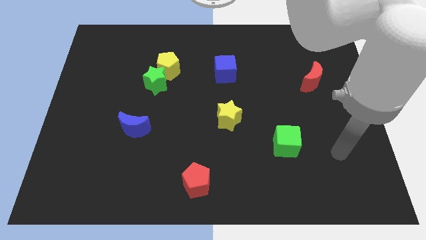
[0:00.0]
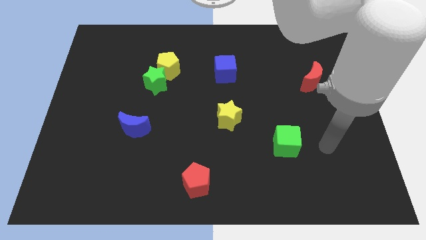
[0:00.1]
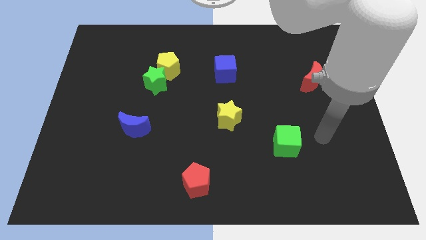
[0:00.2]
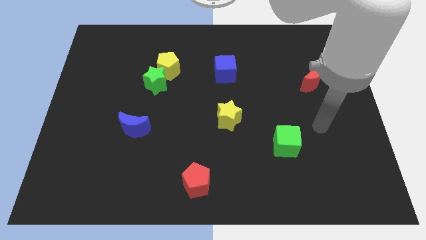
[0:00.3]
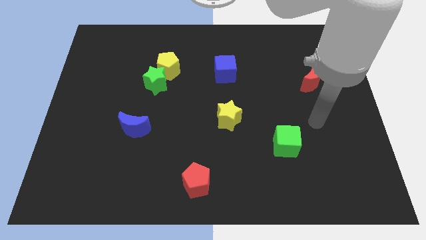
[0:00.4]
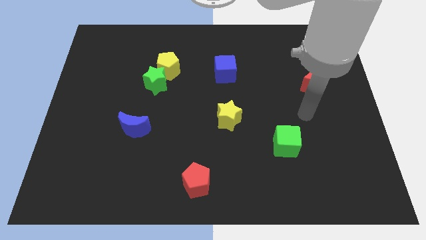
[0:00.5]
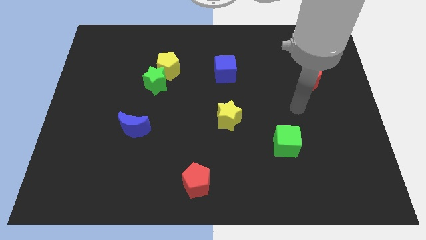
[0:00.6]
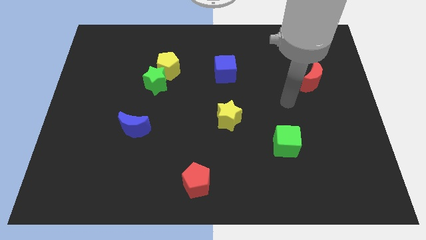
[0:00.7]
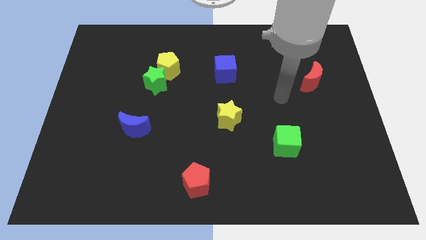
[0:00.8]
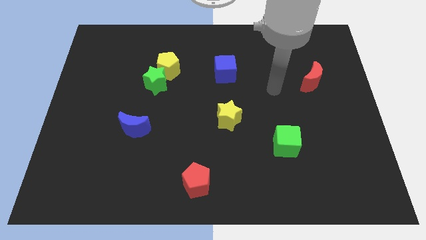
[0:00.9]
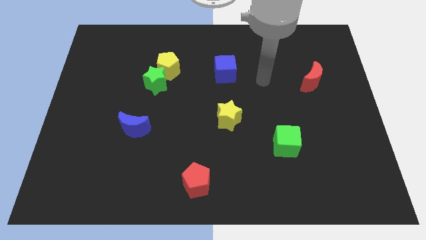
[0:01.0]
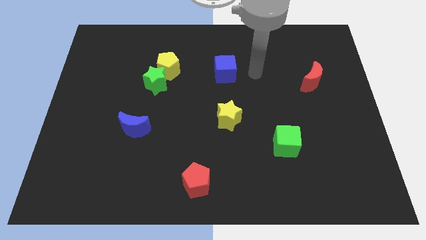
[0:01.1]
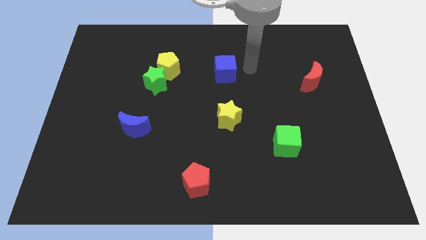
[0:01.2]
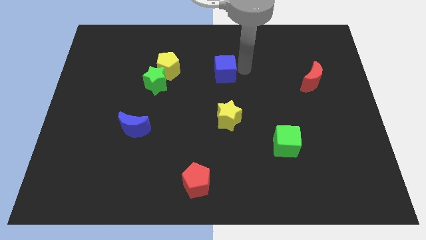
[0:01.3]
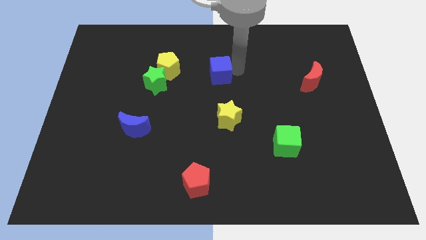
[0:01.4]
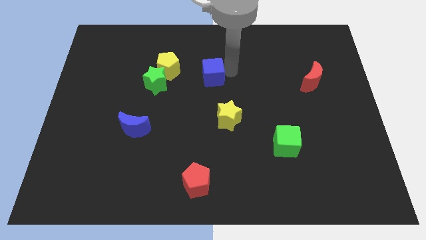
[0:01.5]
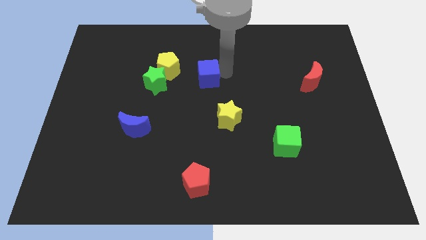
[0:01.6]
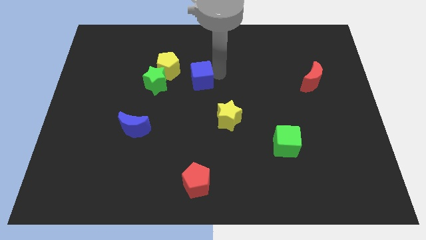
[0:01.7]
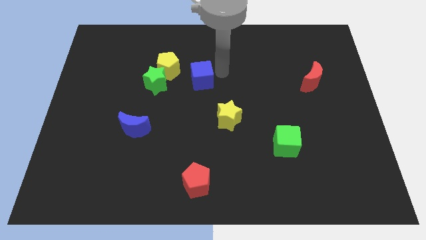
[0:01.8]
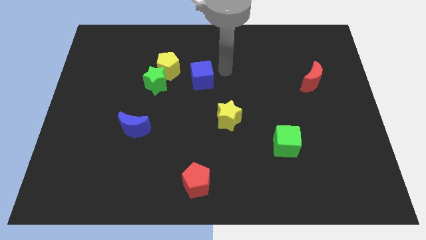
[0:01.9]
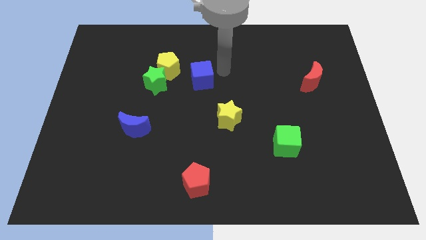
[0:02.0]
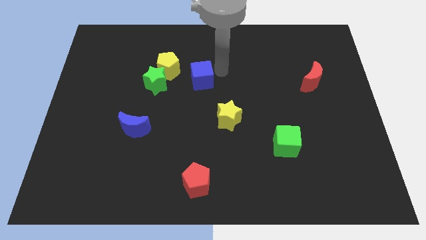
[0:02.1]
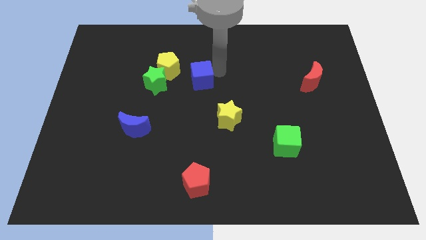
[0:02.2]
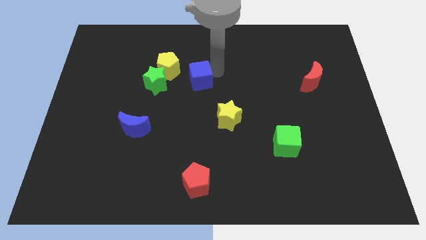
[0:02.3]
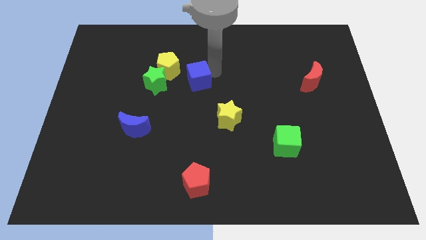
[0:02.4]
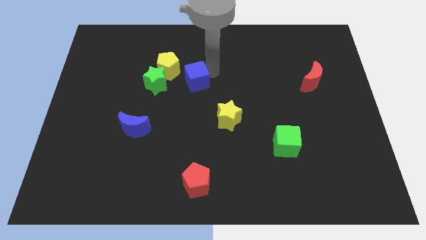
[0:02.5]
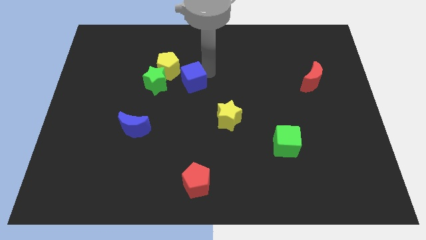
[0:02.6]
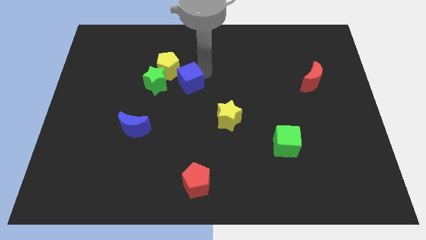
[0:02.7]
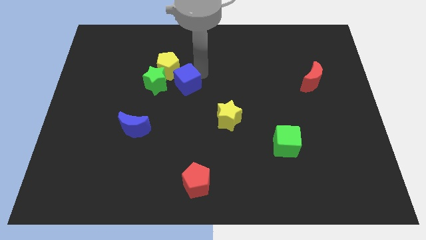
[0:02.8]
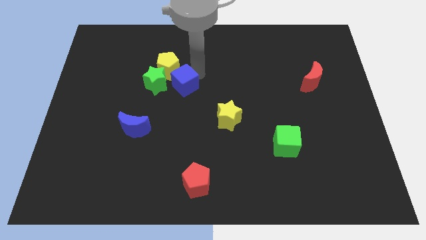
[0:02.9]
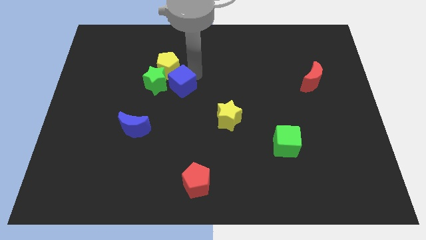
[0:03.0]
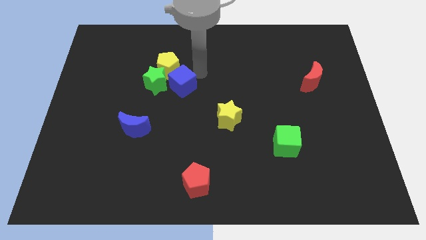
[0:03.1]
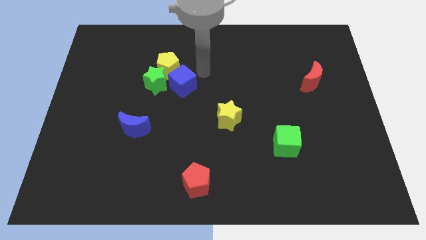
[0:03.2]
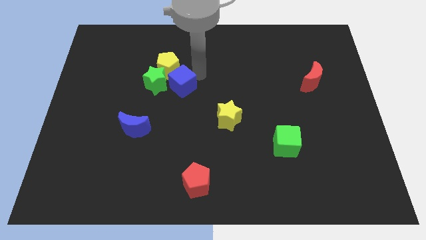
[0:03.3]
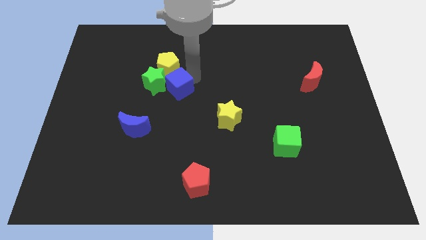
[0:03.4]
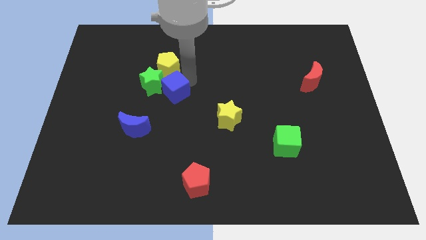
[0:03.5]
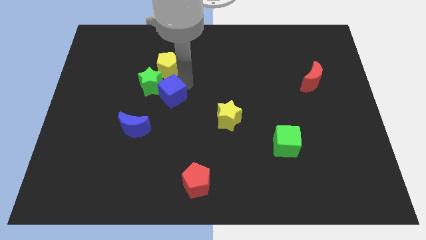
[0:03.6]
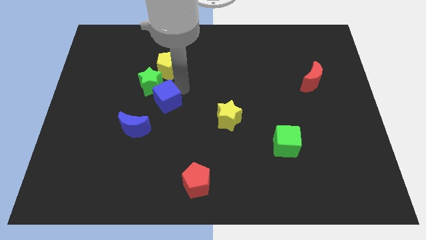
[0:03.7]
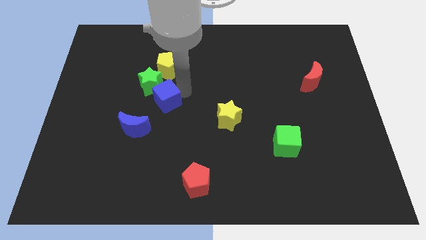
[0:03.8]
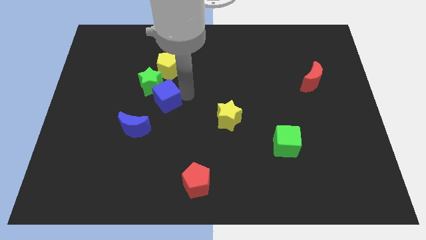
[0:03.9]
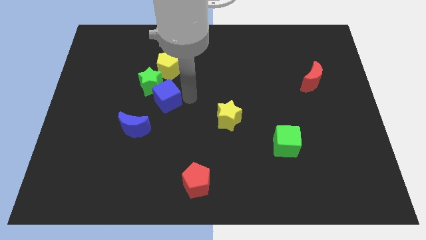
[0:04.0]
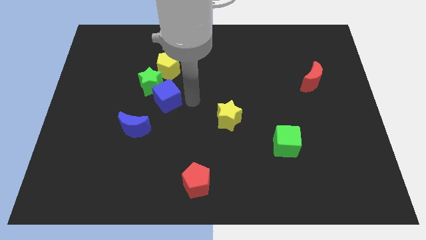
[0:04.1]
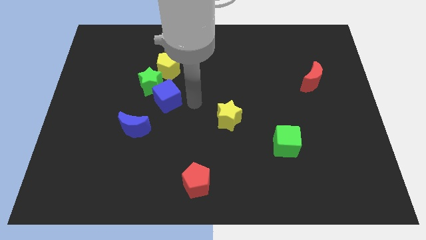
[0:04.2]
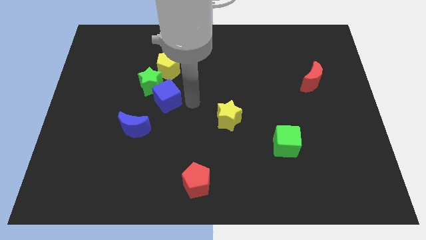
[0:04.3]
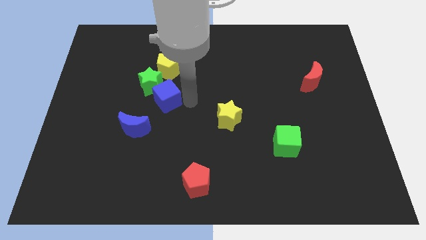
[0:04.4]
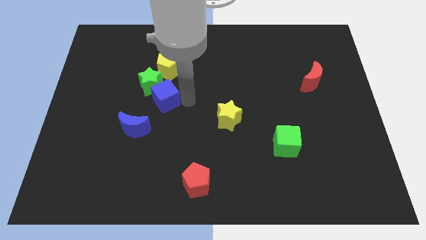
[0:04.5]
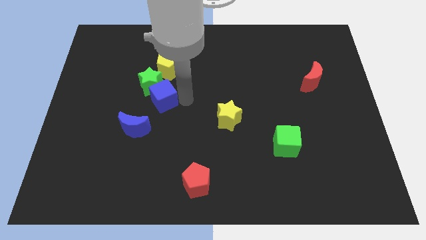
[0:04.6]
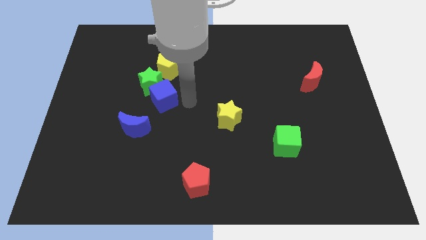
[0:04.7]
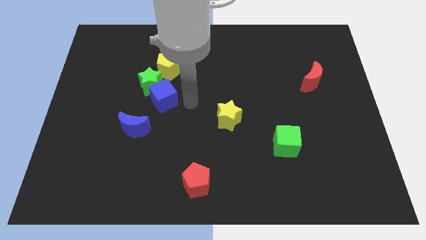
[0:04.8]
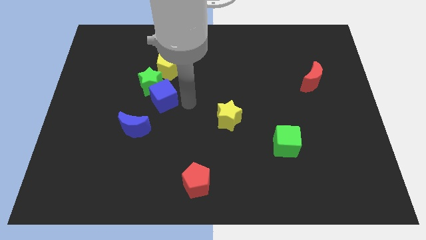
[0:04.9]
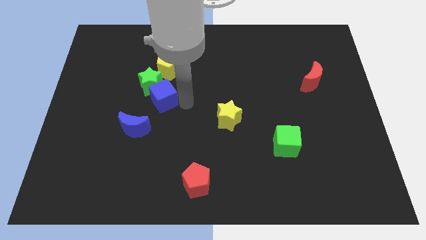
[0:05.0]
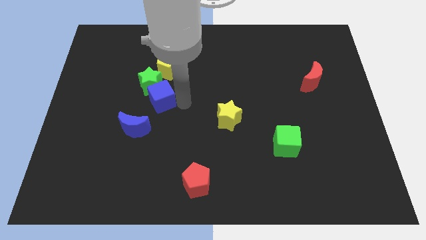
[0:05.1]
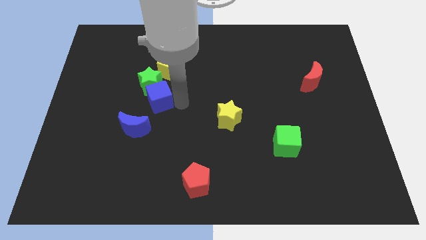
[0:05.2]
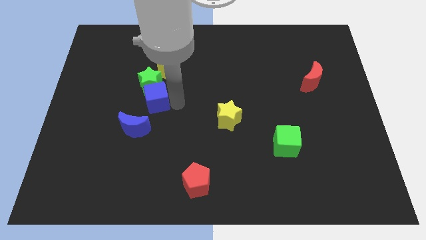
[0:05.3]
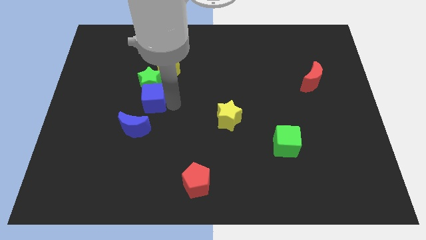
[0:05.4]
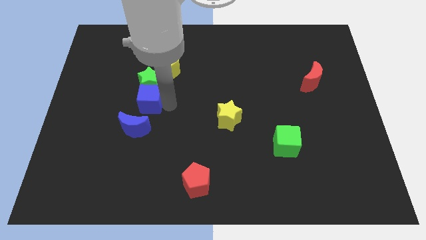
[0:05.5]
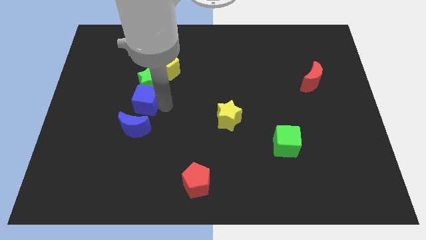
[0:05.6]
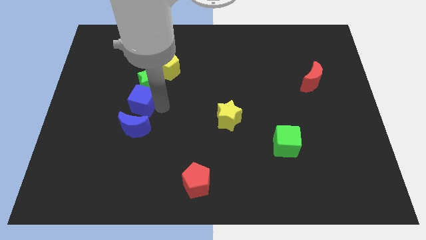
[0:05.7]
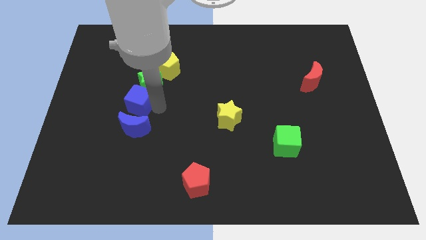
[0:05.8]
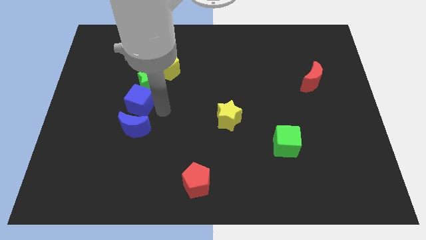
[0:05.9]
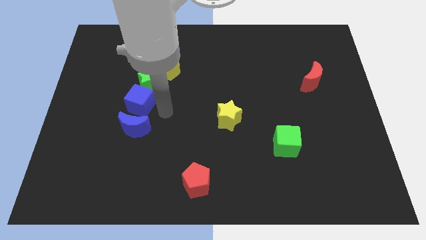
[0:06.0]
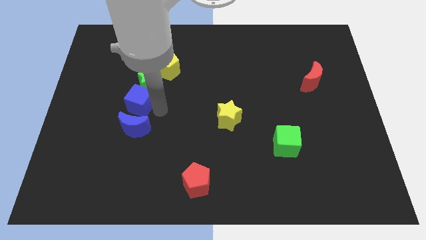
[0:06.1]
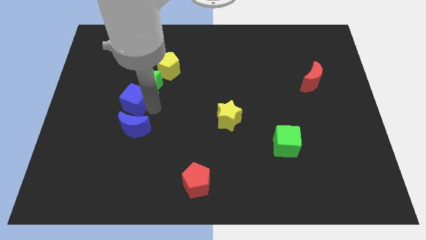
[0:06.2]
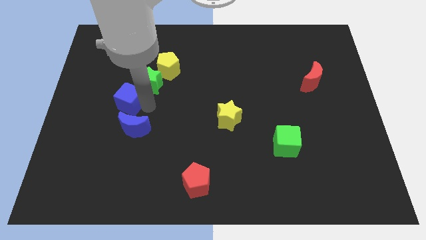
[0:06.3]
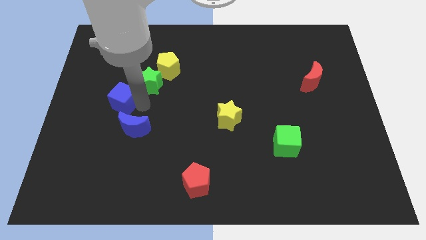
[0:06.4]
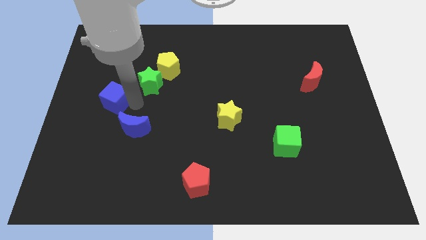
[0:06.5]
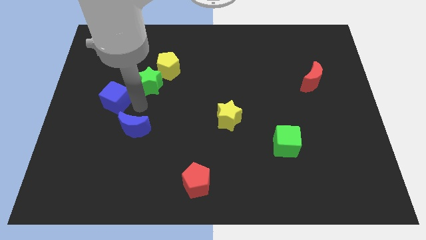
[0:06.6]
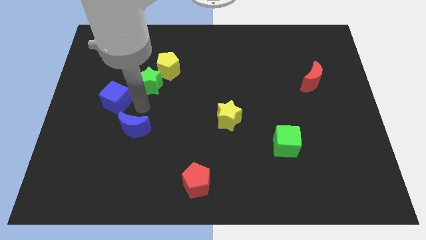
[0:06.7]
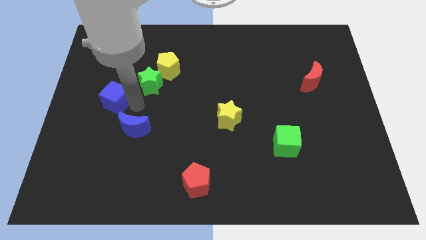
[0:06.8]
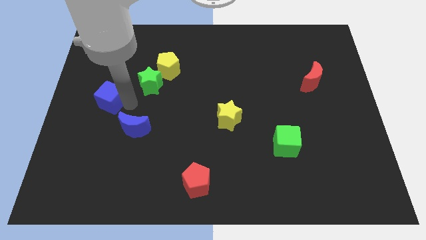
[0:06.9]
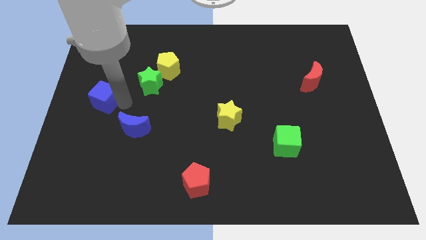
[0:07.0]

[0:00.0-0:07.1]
move the blue cube to the left side of the board

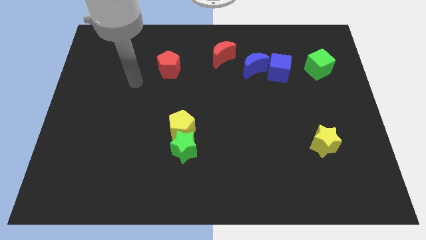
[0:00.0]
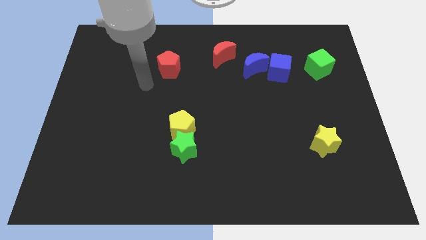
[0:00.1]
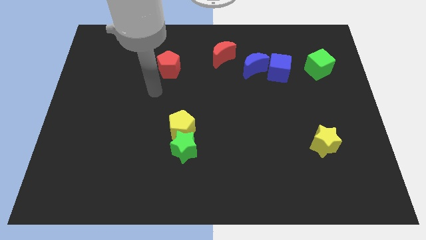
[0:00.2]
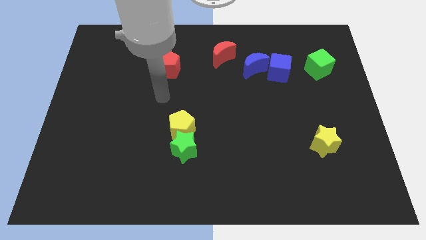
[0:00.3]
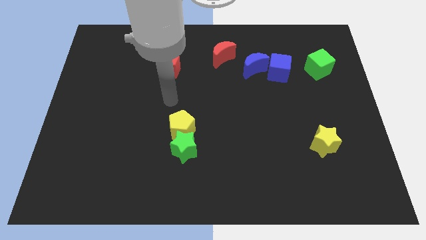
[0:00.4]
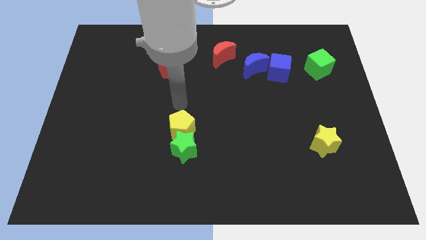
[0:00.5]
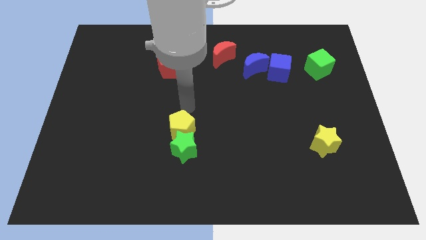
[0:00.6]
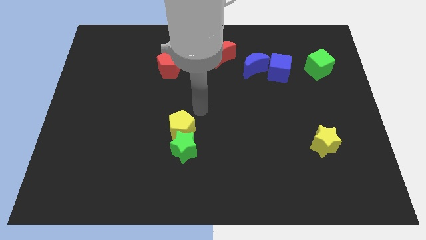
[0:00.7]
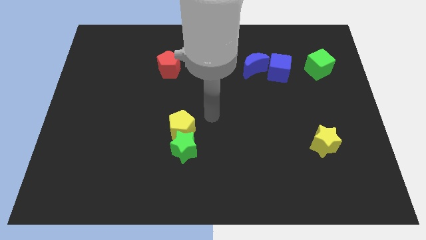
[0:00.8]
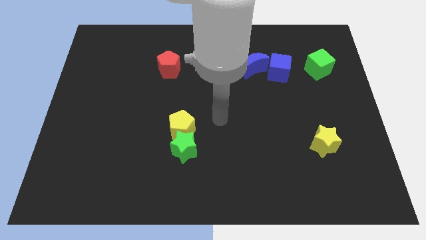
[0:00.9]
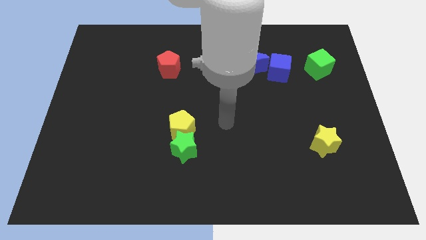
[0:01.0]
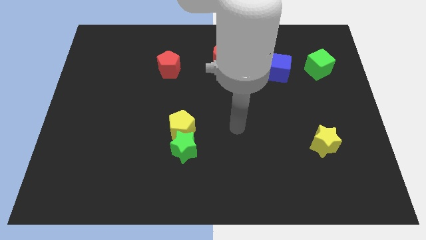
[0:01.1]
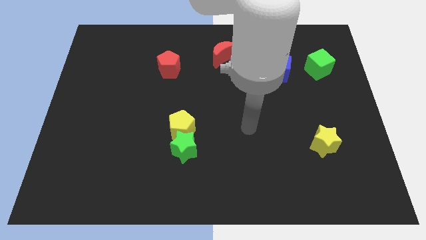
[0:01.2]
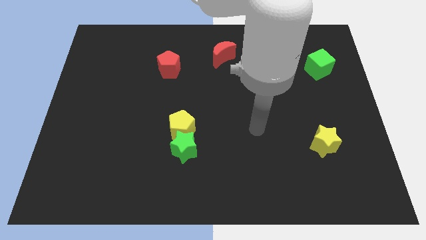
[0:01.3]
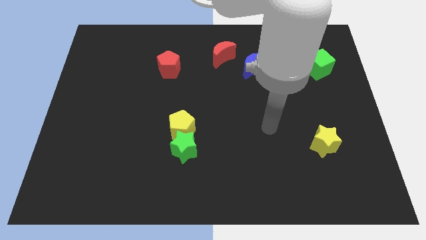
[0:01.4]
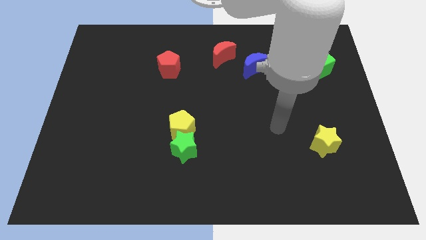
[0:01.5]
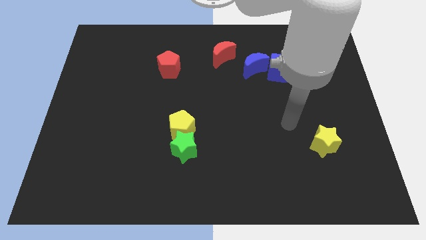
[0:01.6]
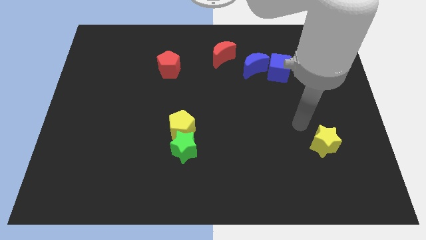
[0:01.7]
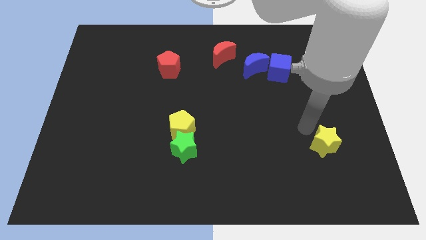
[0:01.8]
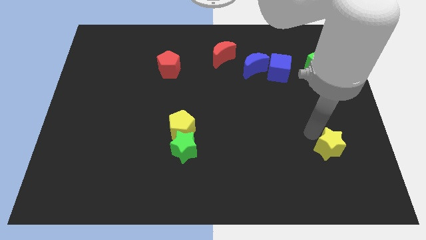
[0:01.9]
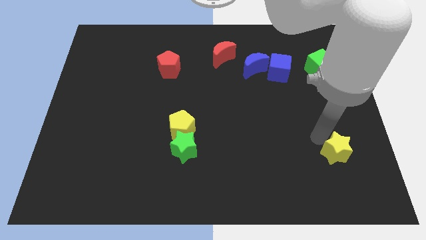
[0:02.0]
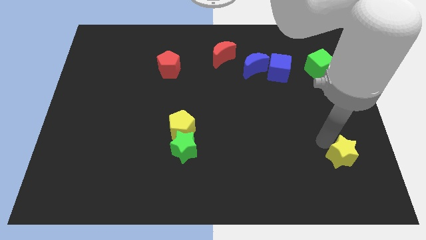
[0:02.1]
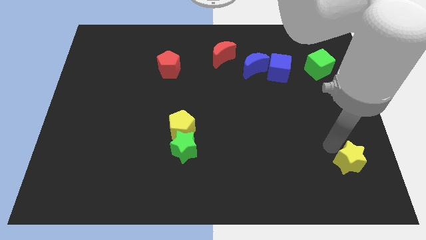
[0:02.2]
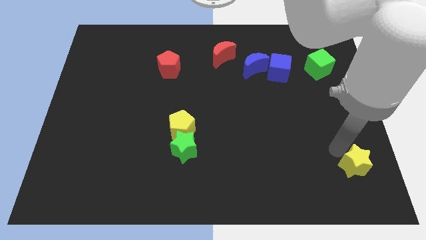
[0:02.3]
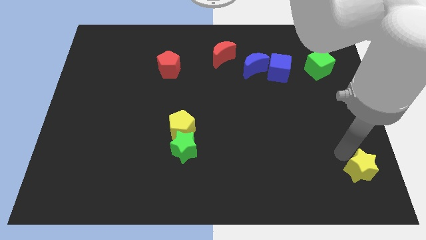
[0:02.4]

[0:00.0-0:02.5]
put the yellow star to the bottom right of the board
